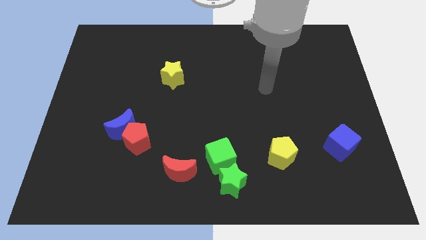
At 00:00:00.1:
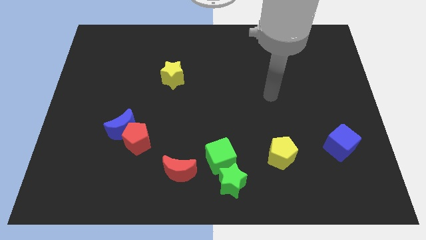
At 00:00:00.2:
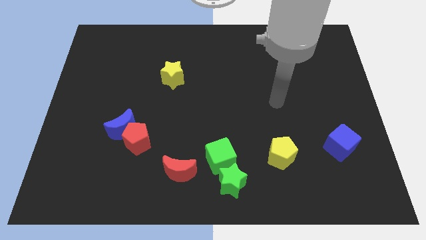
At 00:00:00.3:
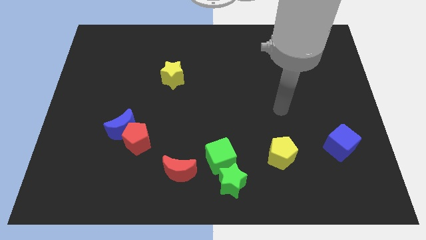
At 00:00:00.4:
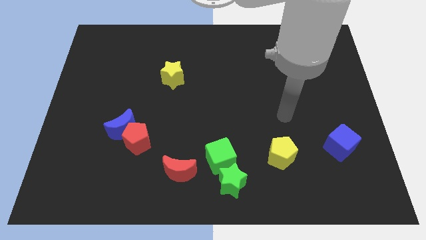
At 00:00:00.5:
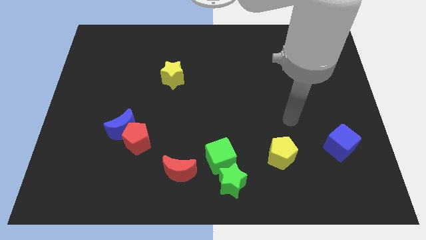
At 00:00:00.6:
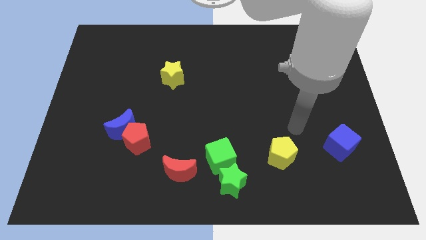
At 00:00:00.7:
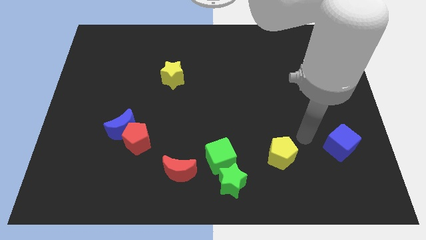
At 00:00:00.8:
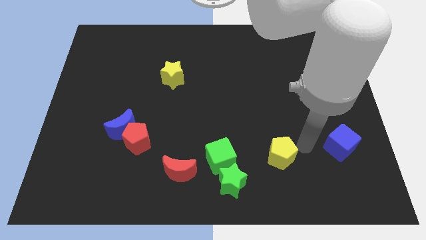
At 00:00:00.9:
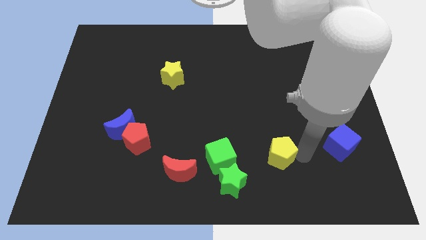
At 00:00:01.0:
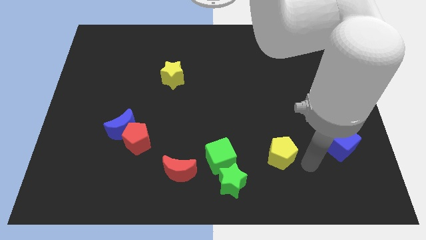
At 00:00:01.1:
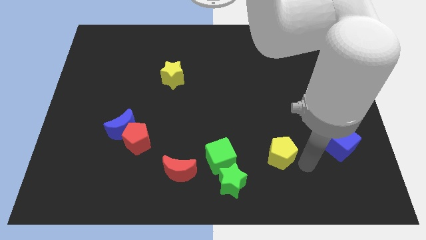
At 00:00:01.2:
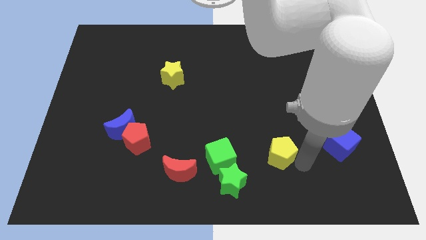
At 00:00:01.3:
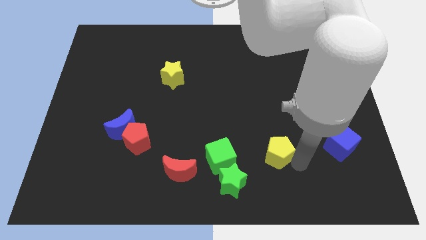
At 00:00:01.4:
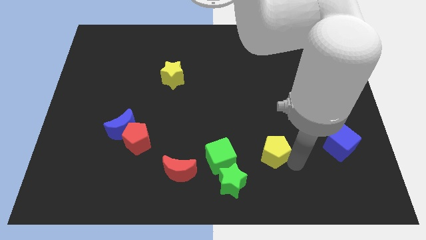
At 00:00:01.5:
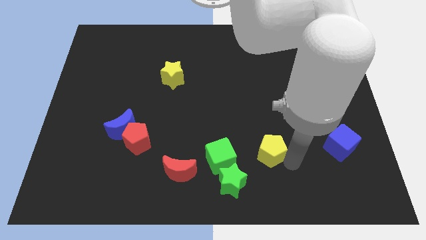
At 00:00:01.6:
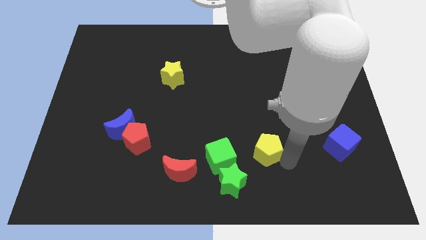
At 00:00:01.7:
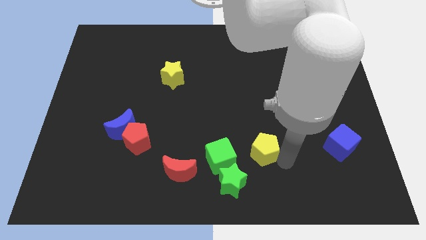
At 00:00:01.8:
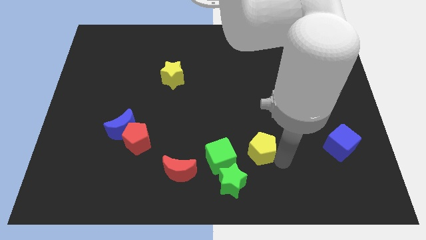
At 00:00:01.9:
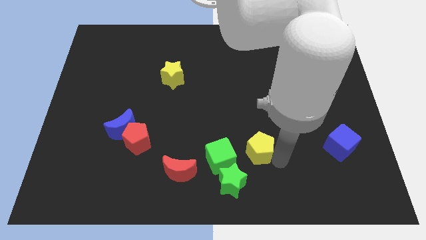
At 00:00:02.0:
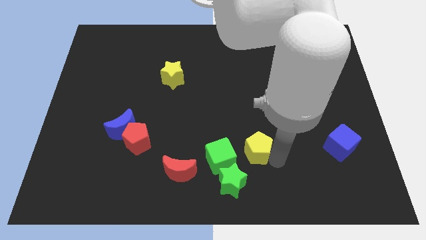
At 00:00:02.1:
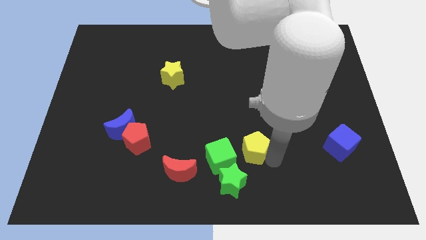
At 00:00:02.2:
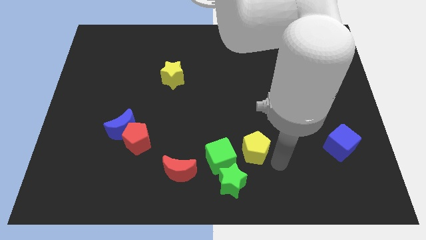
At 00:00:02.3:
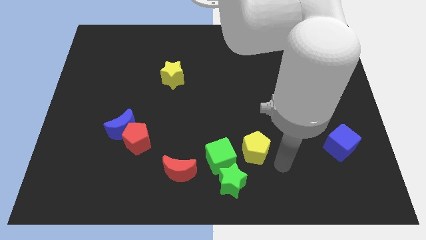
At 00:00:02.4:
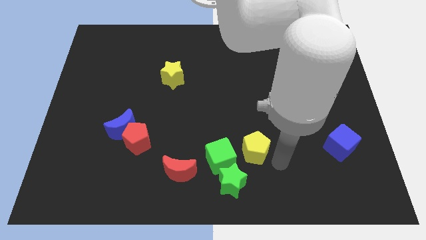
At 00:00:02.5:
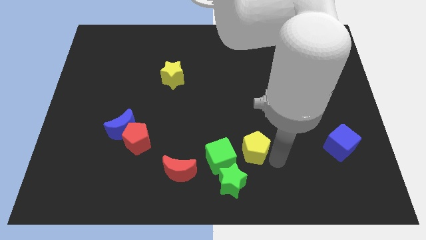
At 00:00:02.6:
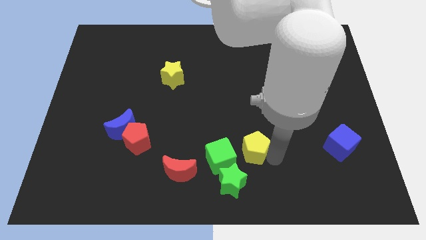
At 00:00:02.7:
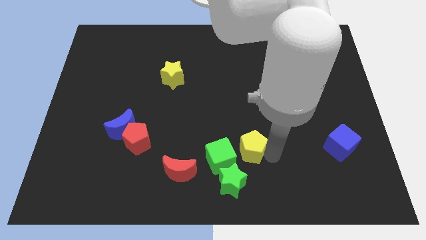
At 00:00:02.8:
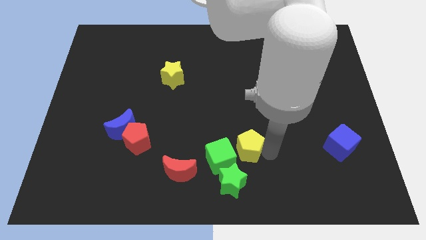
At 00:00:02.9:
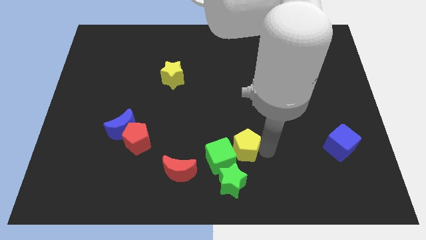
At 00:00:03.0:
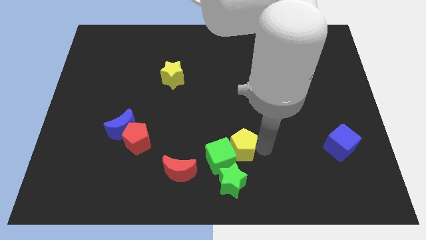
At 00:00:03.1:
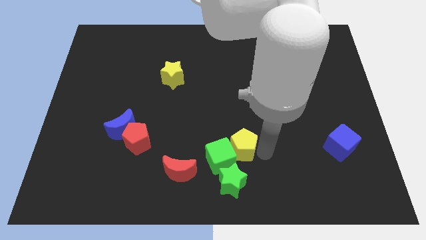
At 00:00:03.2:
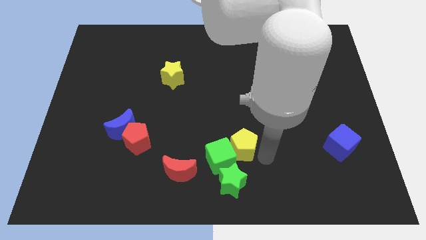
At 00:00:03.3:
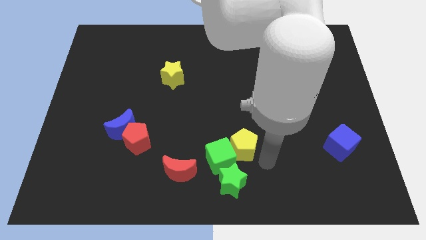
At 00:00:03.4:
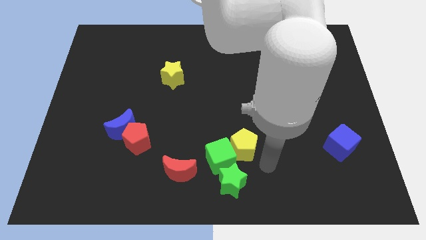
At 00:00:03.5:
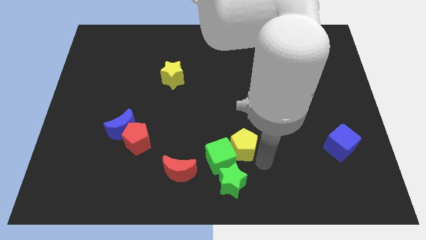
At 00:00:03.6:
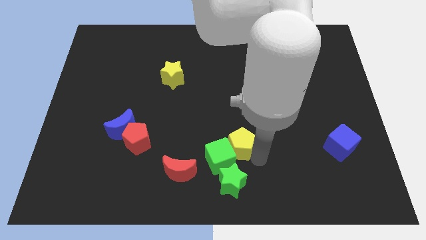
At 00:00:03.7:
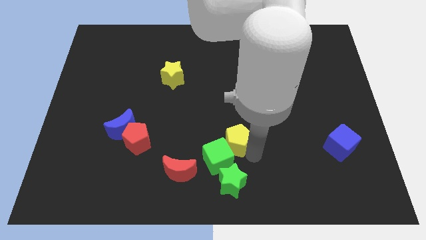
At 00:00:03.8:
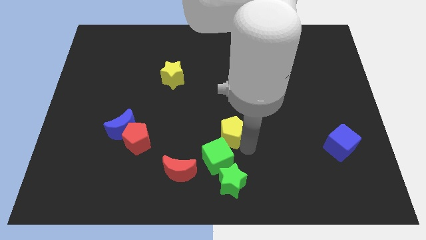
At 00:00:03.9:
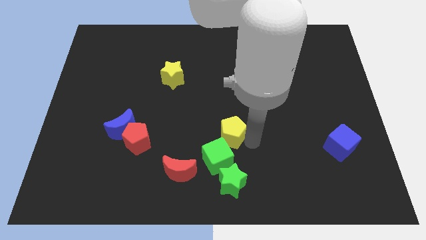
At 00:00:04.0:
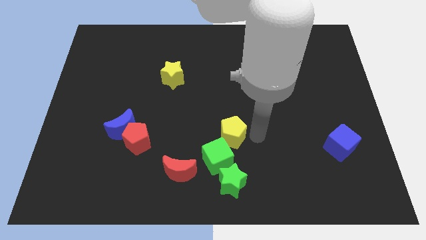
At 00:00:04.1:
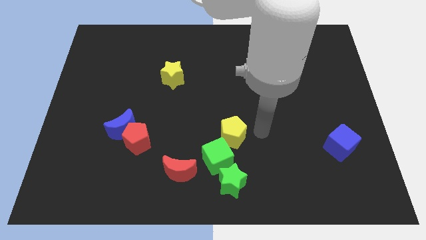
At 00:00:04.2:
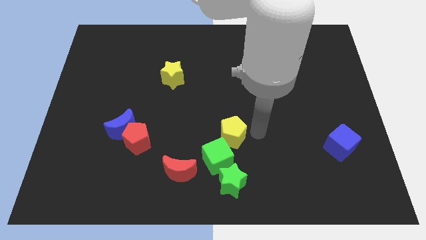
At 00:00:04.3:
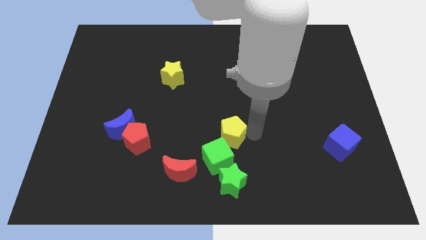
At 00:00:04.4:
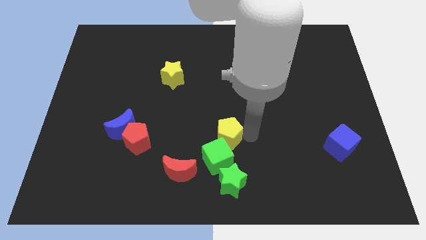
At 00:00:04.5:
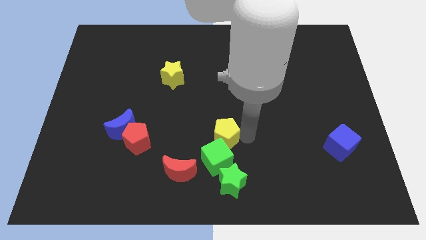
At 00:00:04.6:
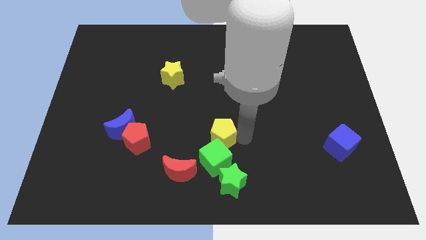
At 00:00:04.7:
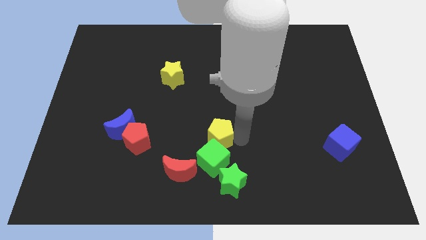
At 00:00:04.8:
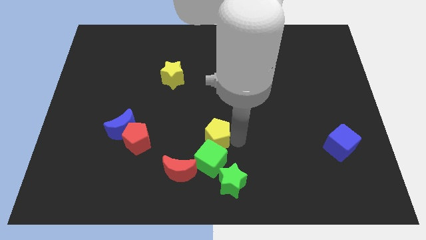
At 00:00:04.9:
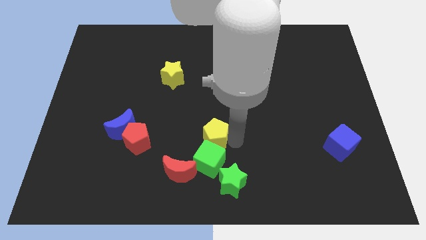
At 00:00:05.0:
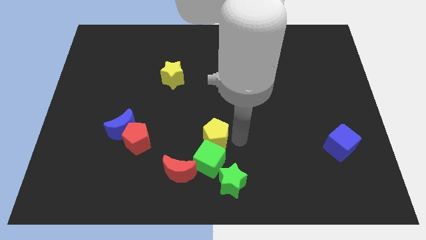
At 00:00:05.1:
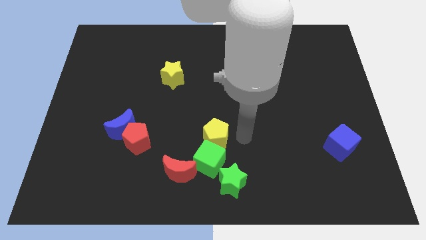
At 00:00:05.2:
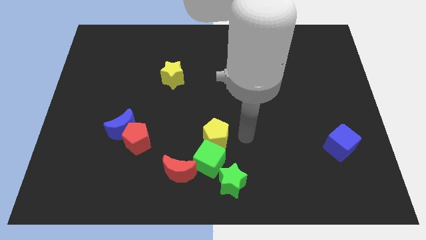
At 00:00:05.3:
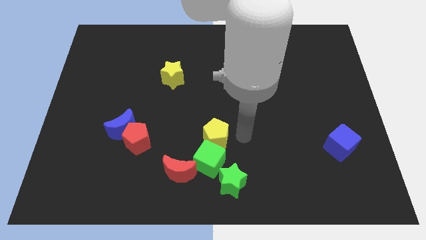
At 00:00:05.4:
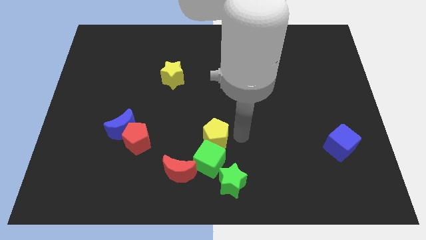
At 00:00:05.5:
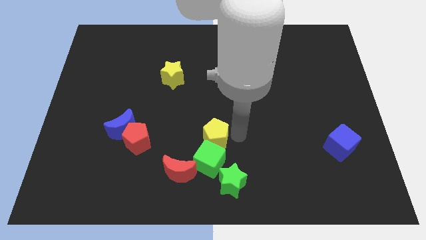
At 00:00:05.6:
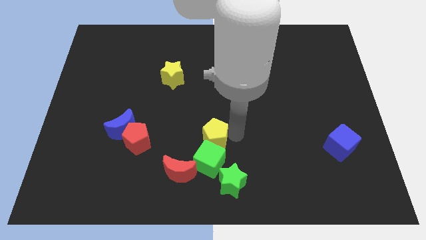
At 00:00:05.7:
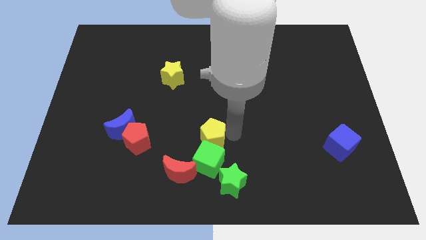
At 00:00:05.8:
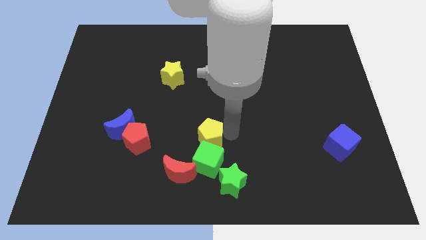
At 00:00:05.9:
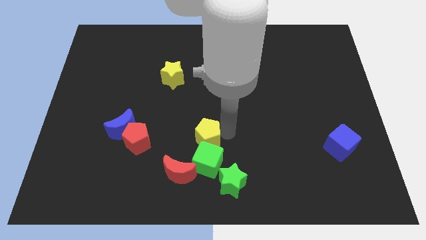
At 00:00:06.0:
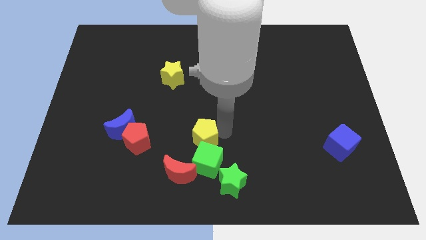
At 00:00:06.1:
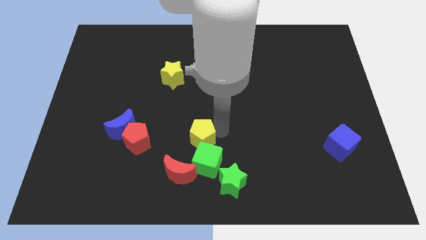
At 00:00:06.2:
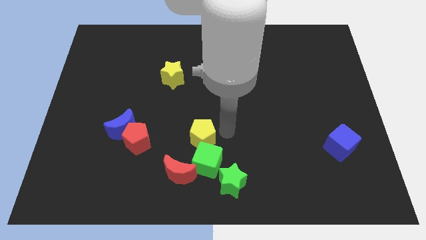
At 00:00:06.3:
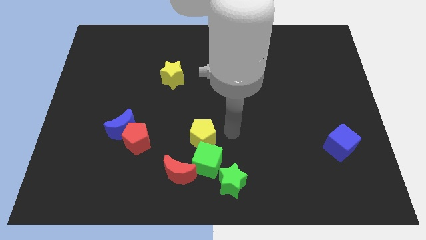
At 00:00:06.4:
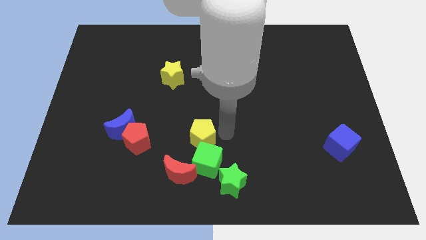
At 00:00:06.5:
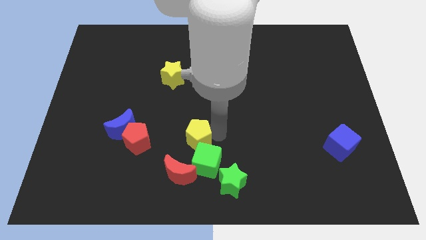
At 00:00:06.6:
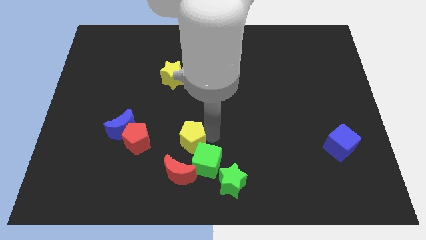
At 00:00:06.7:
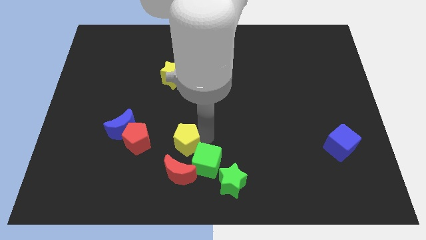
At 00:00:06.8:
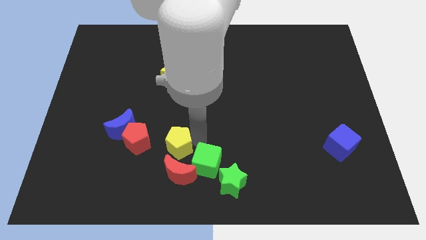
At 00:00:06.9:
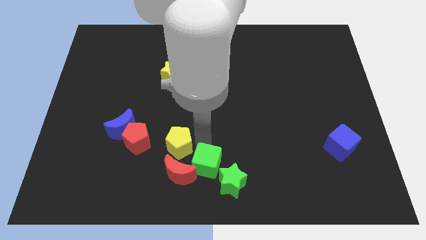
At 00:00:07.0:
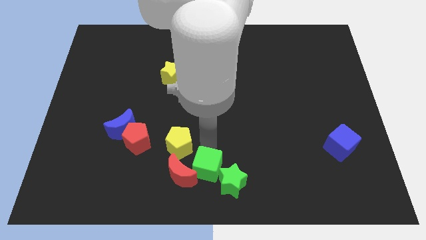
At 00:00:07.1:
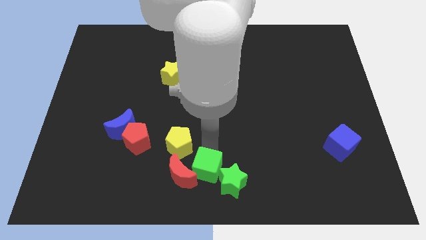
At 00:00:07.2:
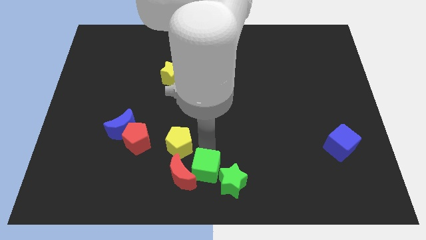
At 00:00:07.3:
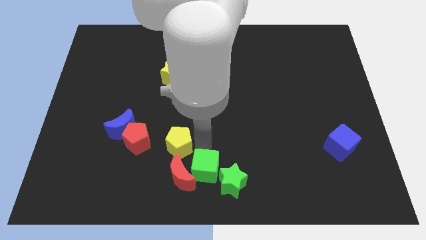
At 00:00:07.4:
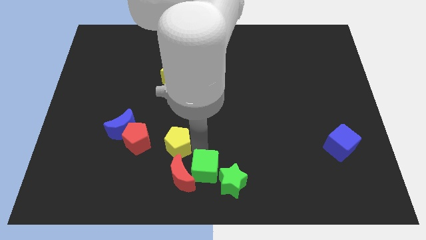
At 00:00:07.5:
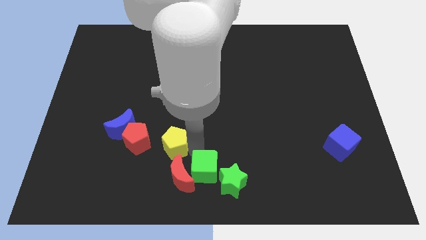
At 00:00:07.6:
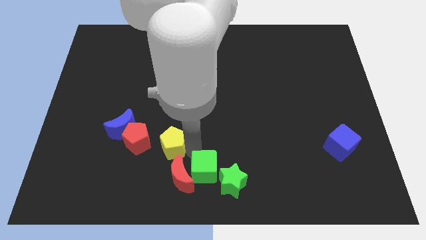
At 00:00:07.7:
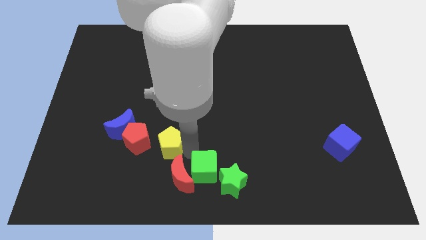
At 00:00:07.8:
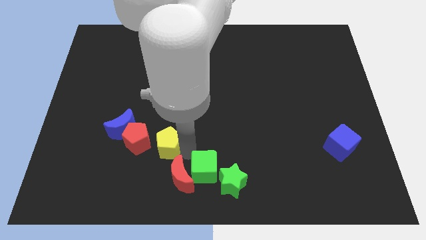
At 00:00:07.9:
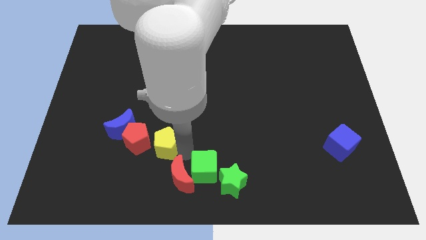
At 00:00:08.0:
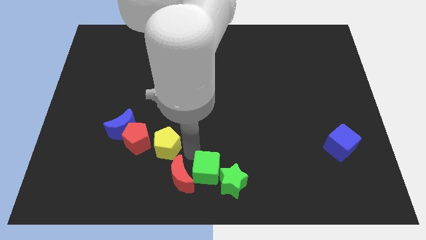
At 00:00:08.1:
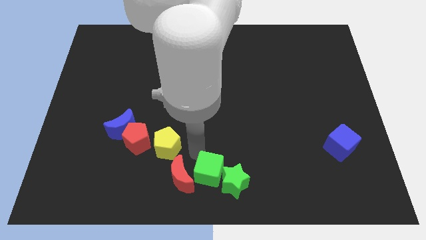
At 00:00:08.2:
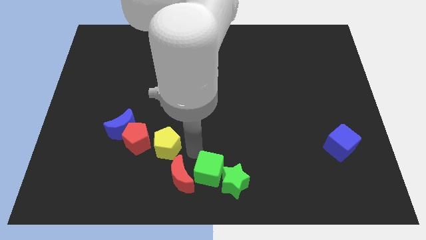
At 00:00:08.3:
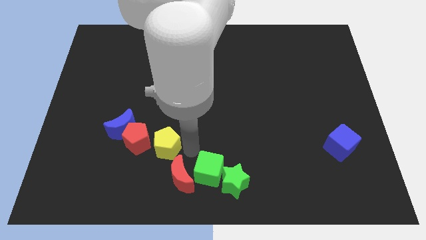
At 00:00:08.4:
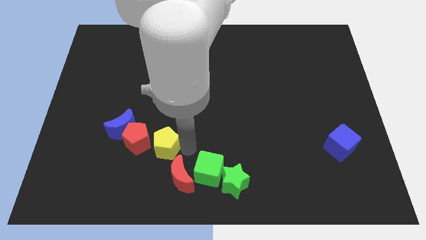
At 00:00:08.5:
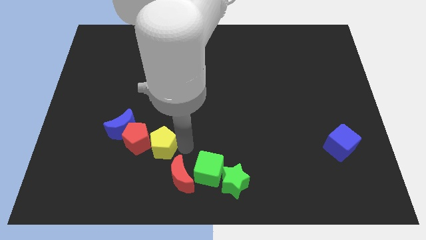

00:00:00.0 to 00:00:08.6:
move the yellow pentagon towards the red pentagon
